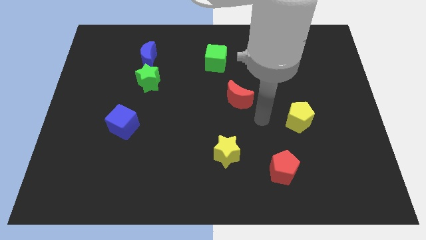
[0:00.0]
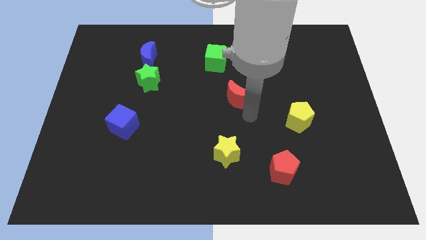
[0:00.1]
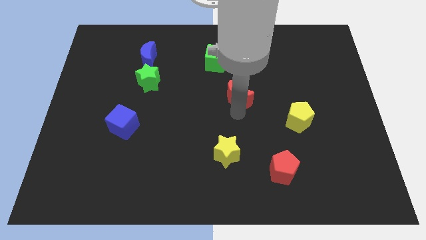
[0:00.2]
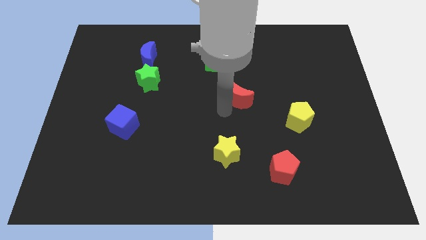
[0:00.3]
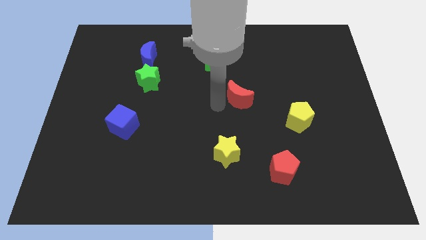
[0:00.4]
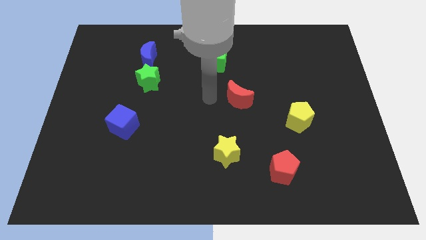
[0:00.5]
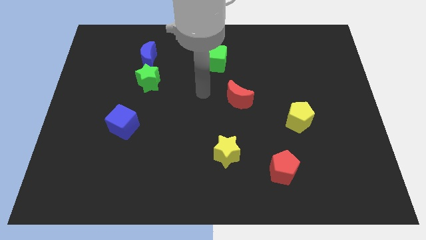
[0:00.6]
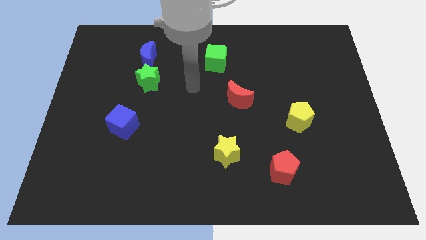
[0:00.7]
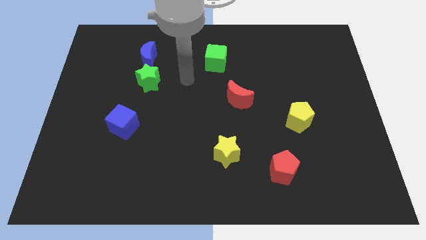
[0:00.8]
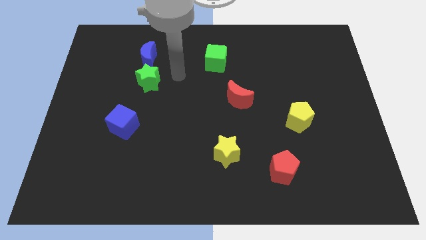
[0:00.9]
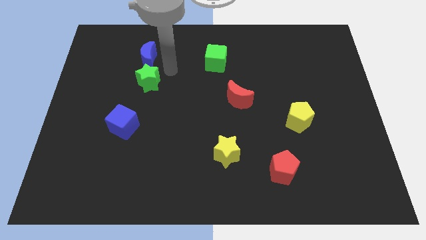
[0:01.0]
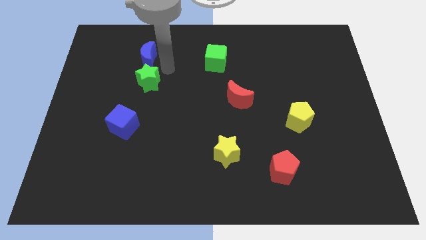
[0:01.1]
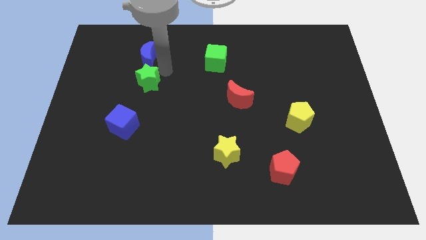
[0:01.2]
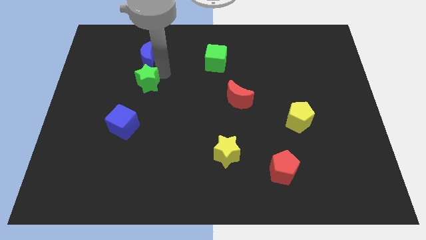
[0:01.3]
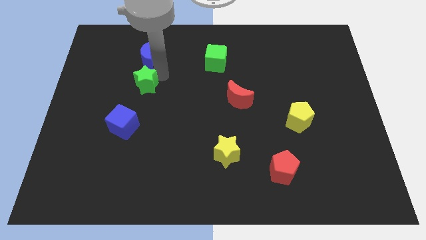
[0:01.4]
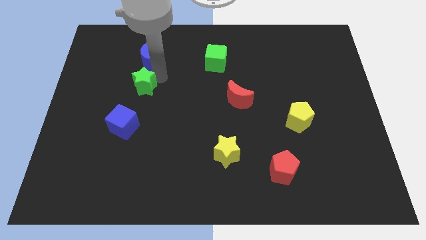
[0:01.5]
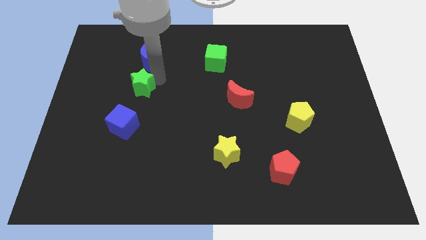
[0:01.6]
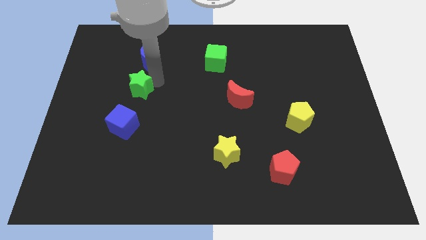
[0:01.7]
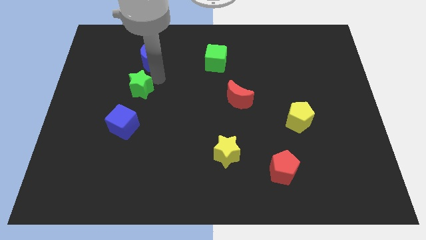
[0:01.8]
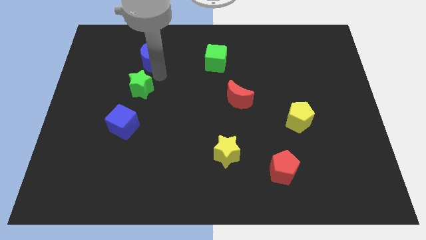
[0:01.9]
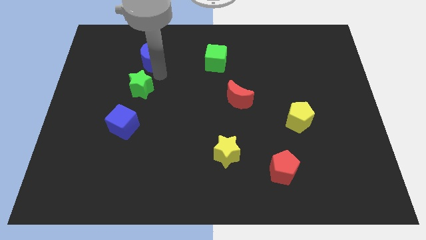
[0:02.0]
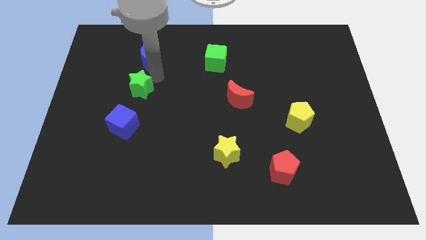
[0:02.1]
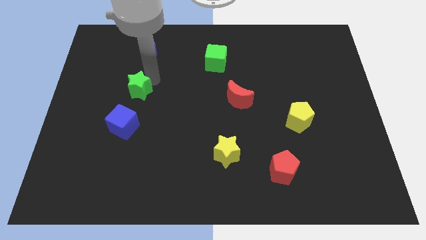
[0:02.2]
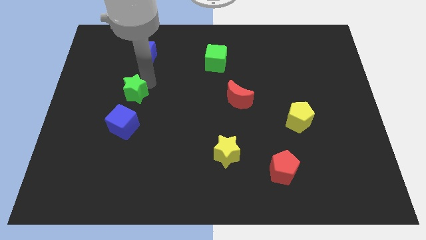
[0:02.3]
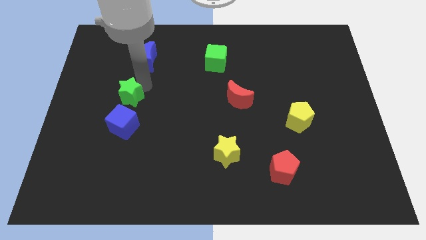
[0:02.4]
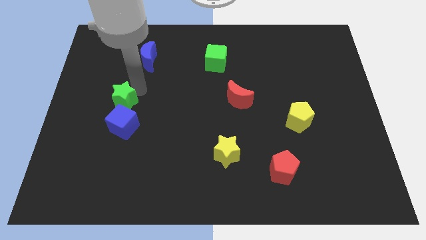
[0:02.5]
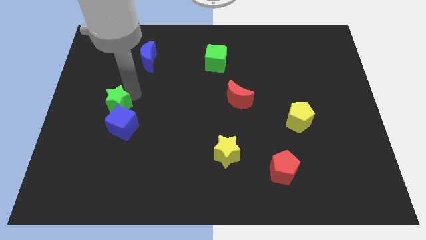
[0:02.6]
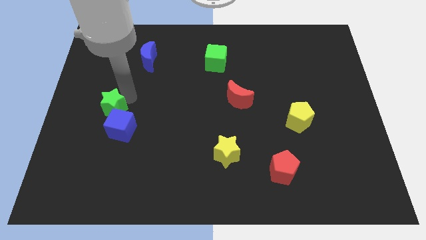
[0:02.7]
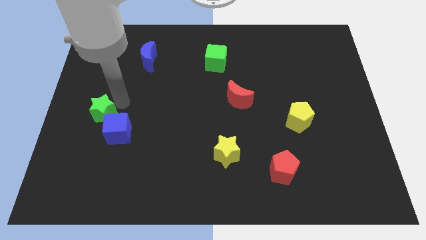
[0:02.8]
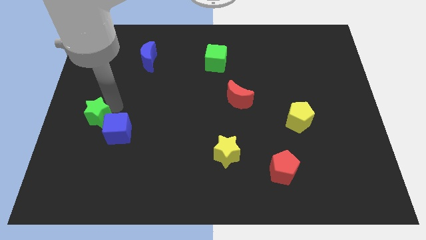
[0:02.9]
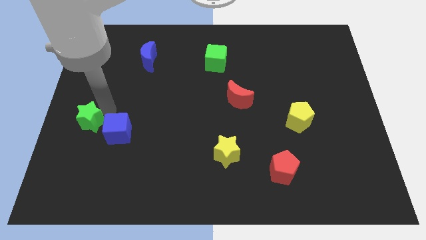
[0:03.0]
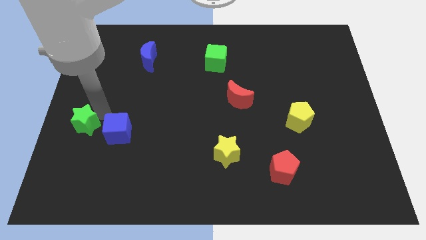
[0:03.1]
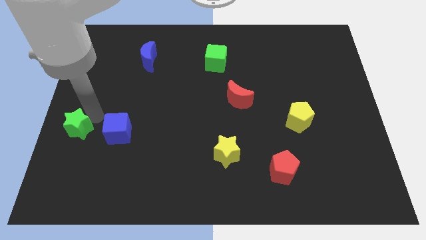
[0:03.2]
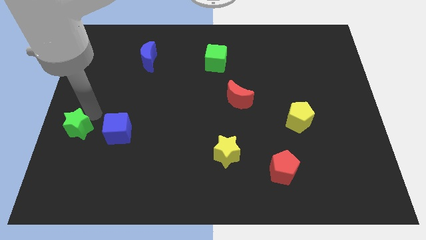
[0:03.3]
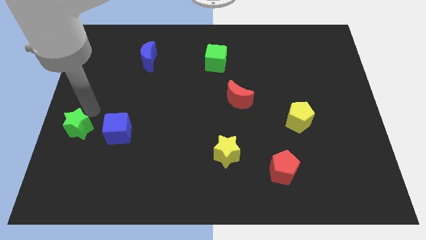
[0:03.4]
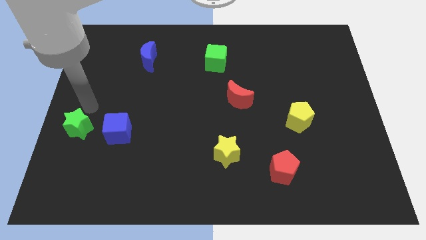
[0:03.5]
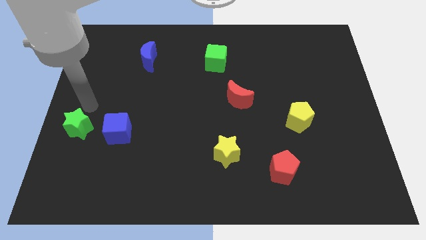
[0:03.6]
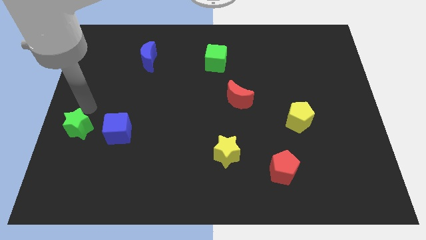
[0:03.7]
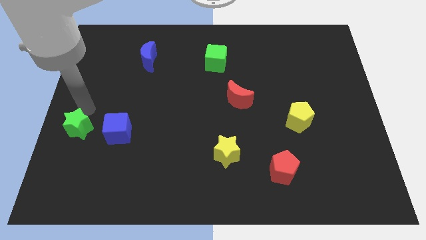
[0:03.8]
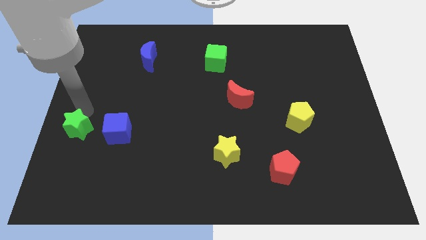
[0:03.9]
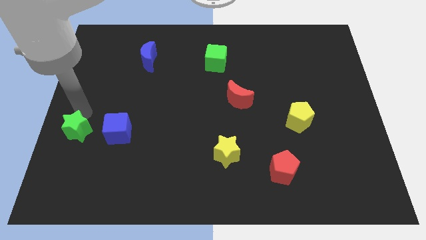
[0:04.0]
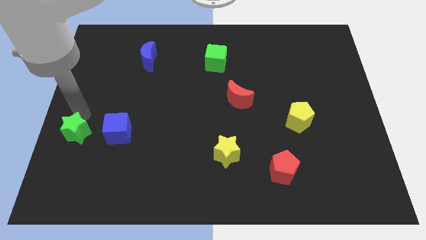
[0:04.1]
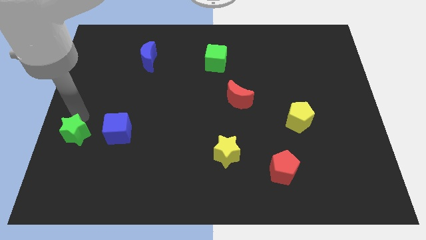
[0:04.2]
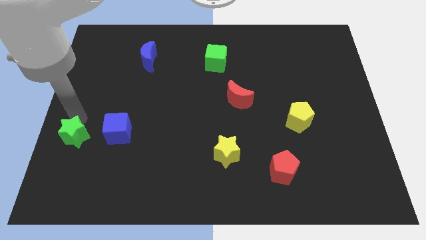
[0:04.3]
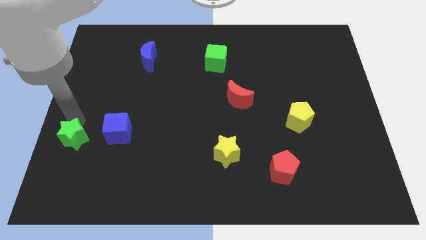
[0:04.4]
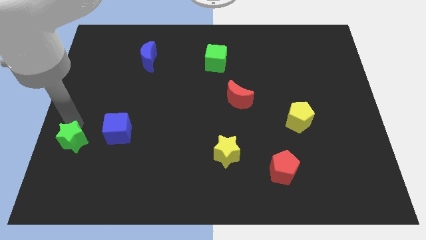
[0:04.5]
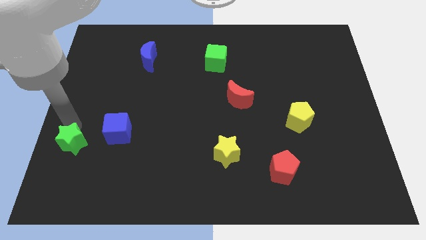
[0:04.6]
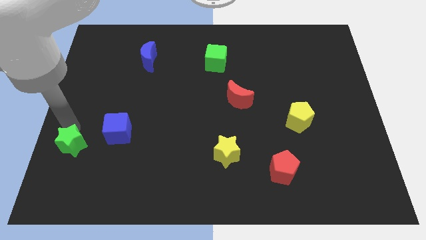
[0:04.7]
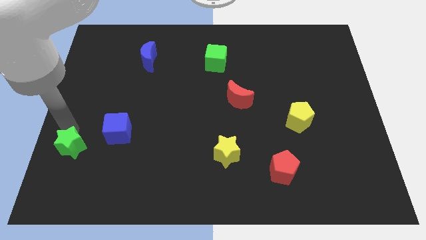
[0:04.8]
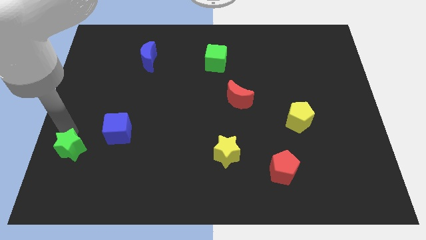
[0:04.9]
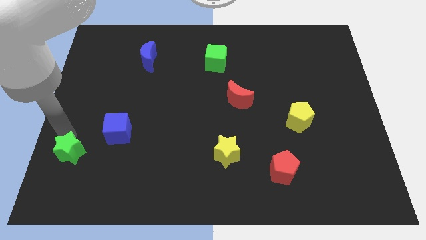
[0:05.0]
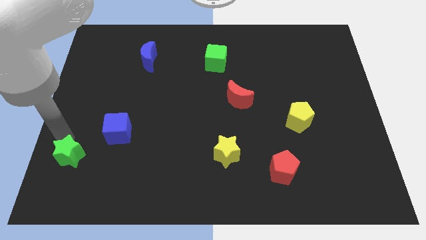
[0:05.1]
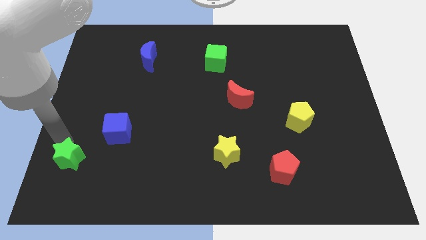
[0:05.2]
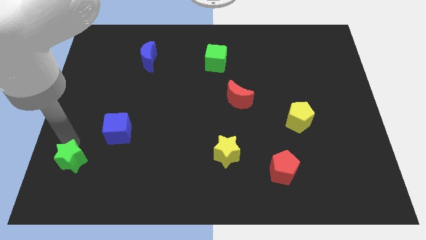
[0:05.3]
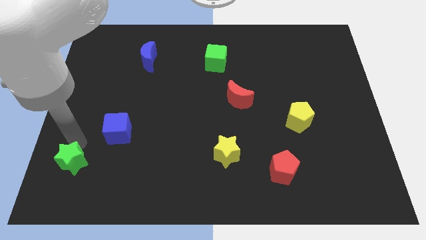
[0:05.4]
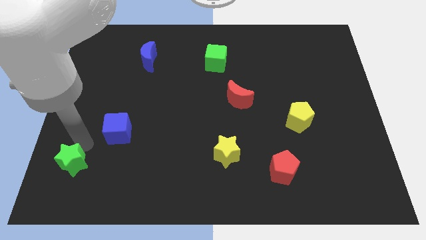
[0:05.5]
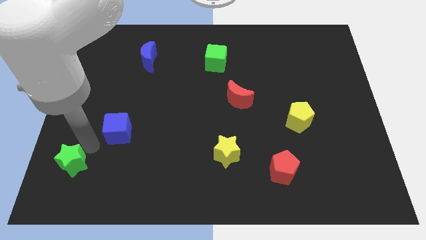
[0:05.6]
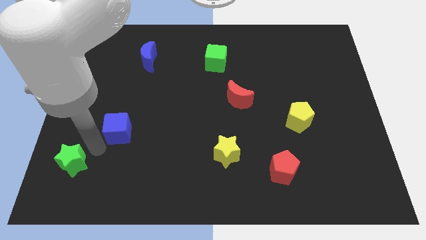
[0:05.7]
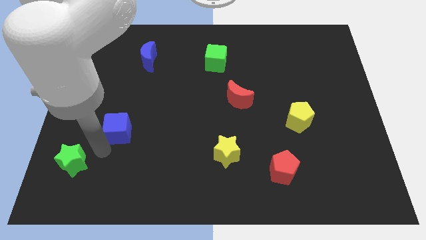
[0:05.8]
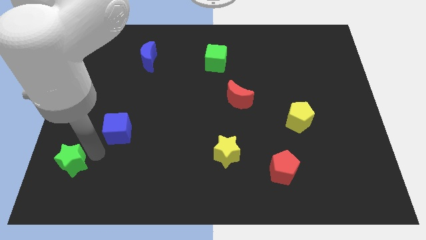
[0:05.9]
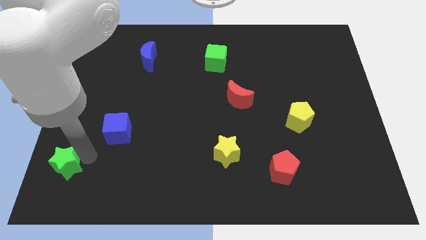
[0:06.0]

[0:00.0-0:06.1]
move the green star to the lower left corner
